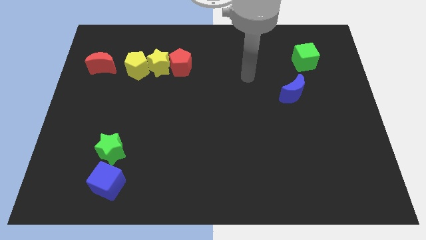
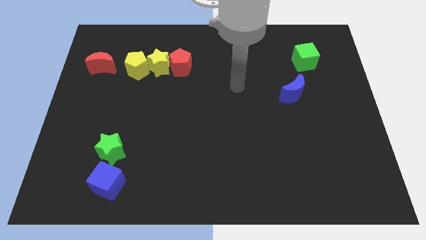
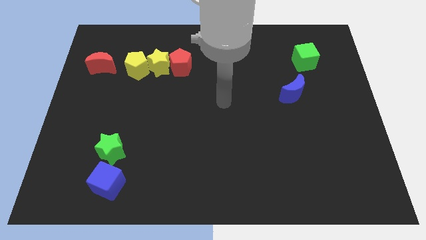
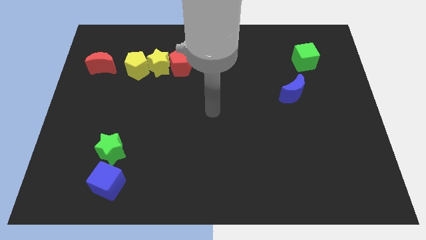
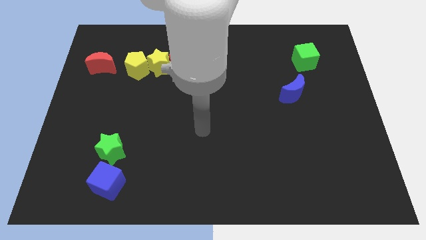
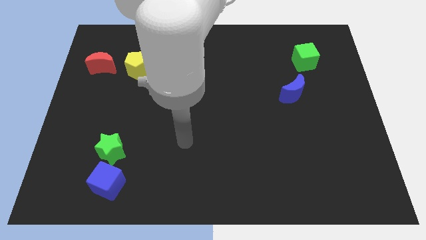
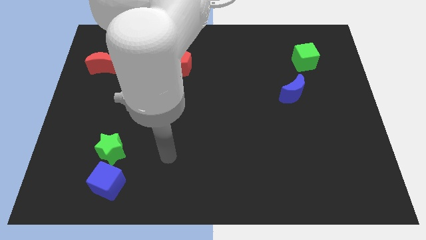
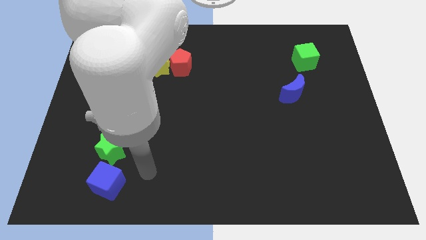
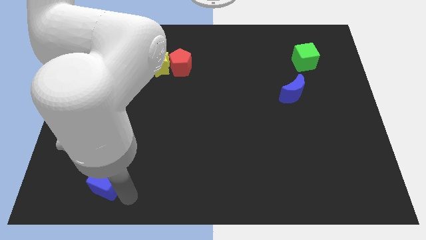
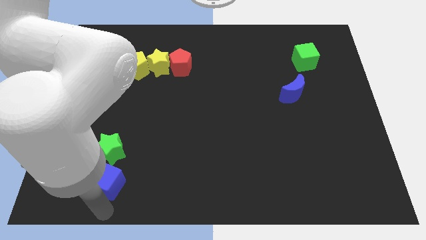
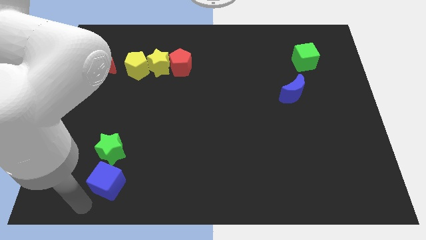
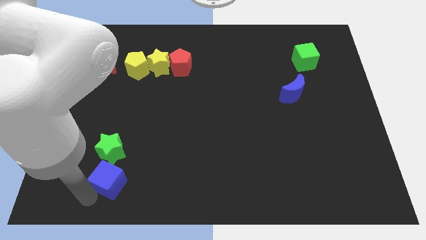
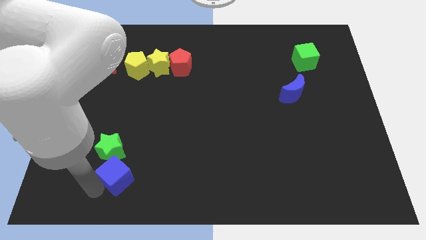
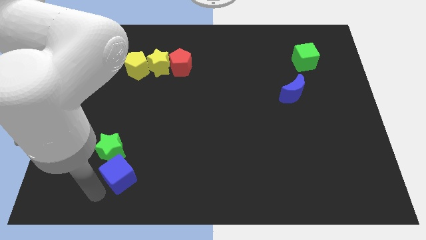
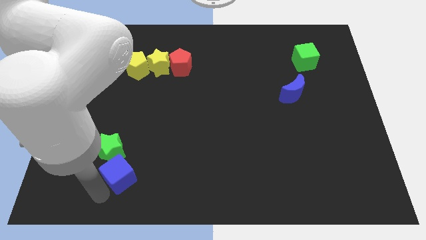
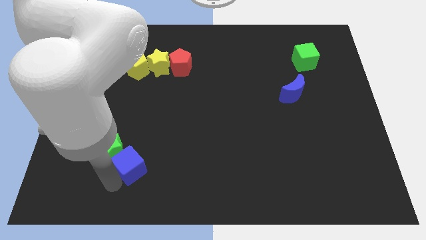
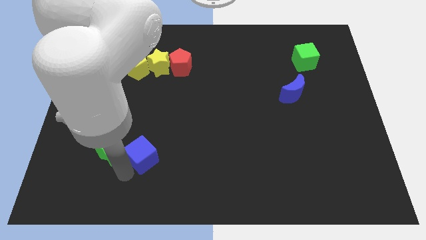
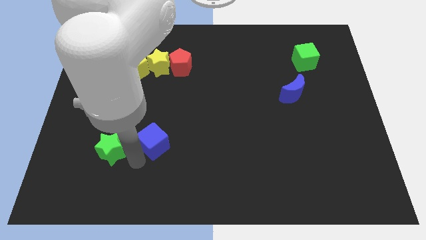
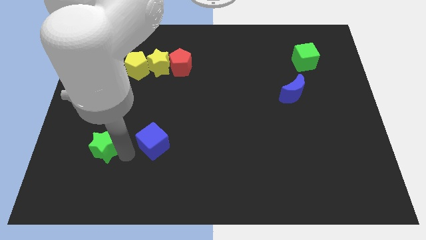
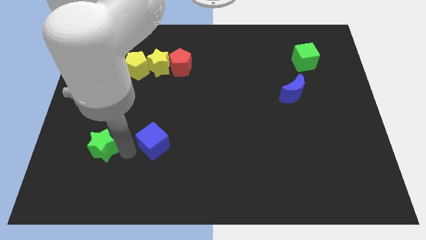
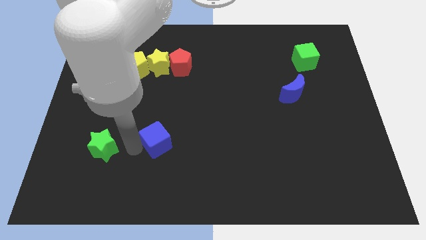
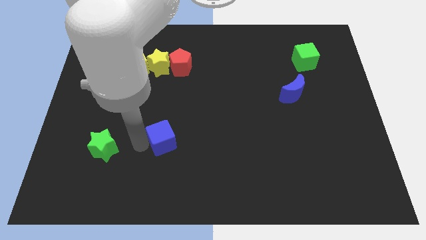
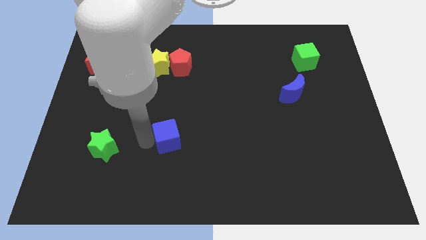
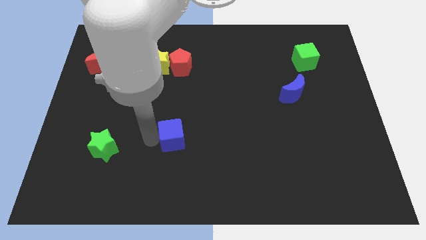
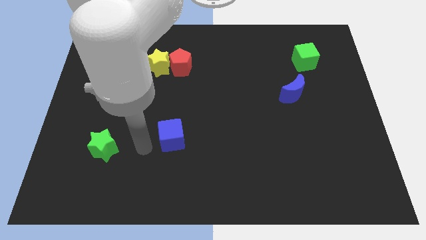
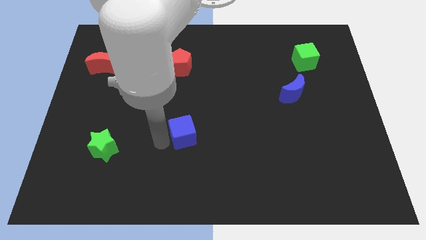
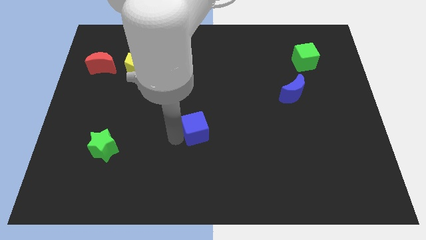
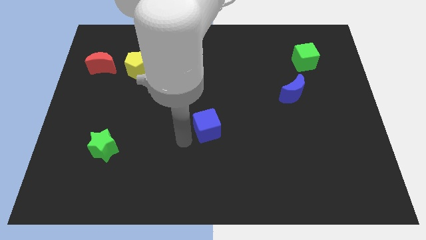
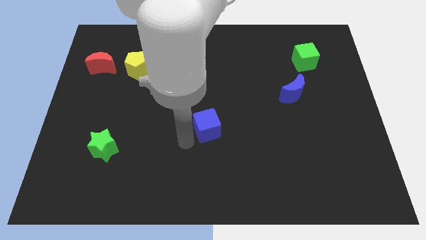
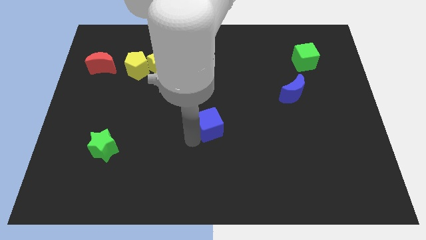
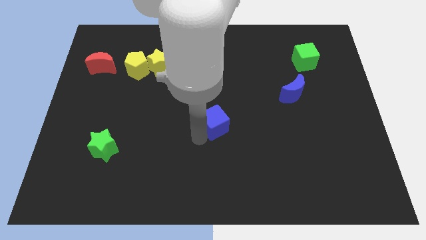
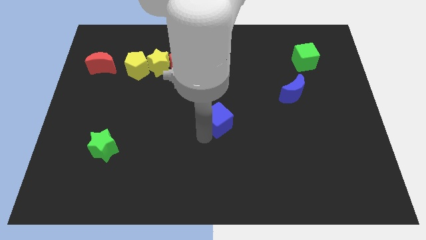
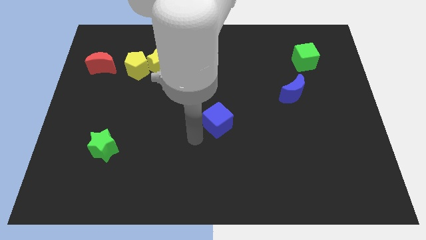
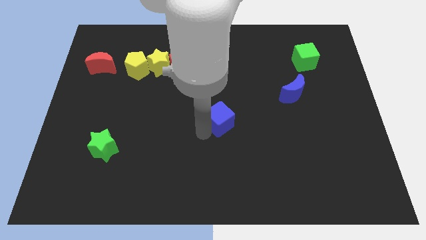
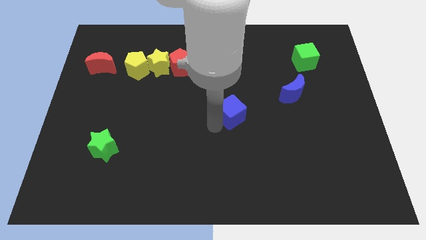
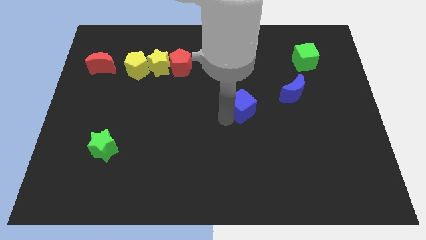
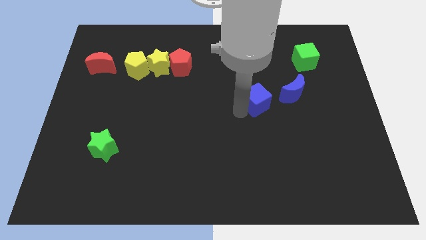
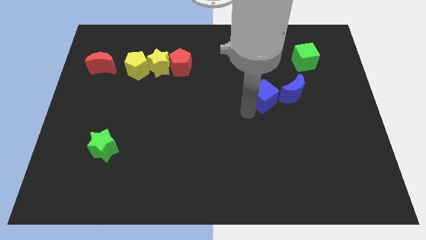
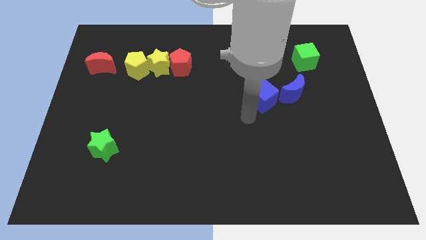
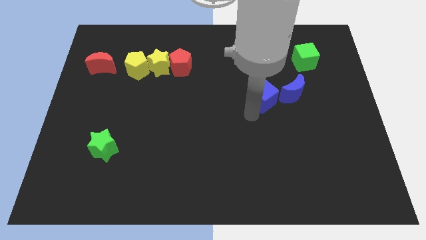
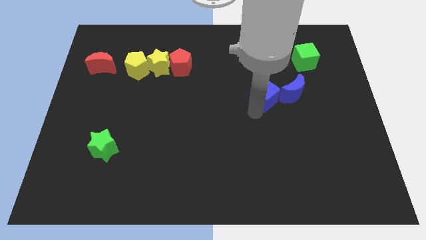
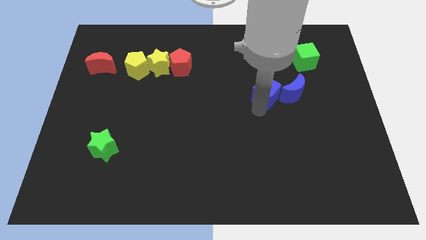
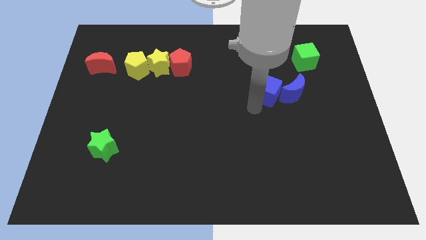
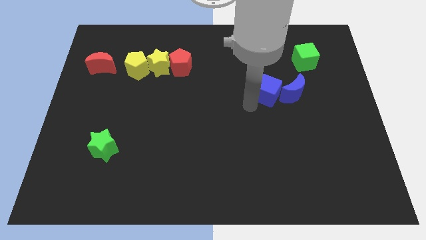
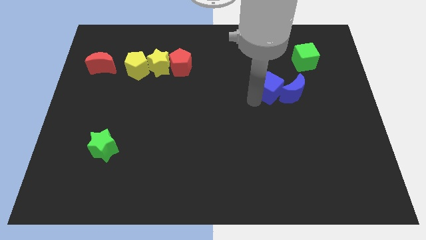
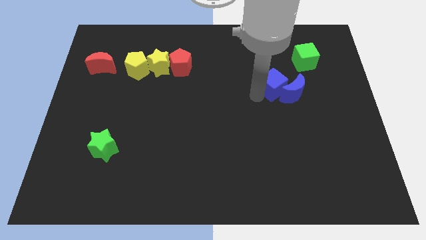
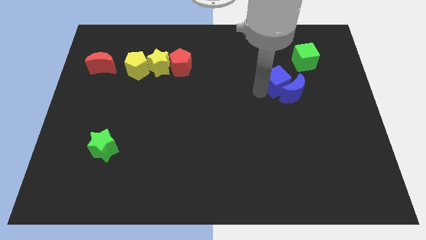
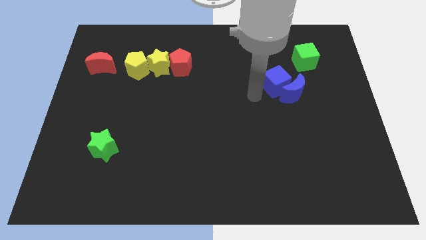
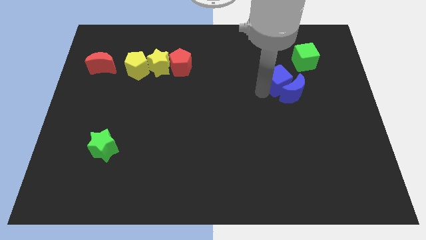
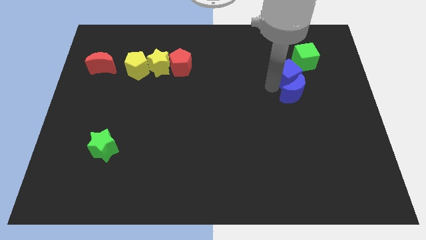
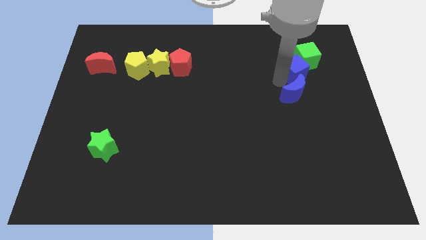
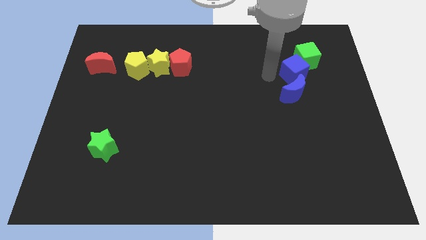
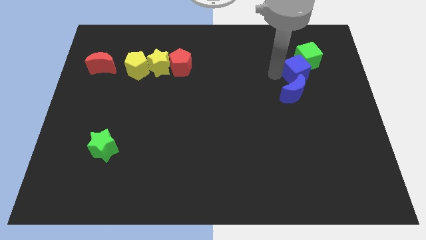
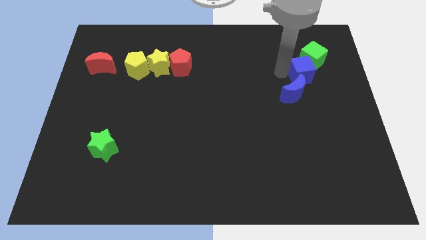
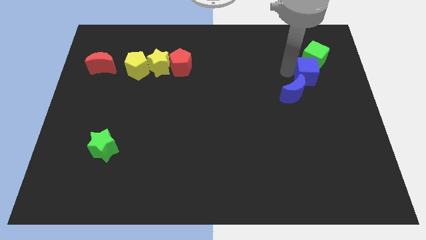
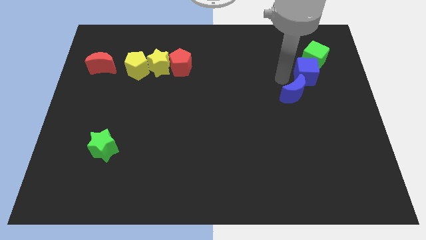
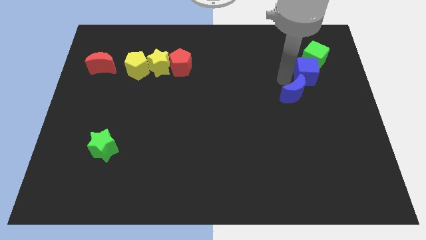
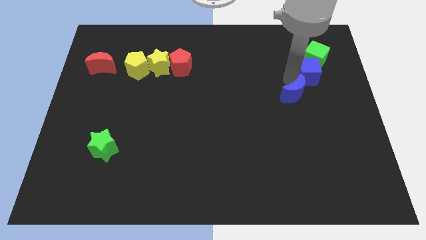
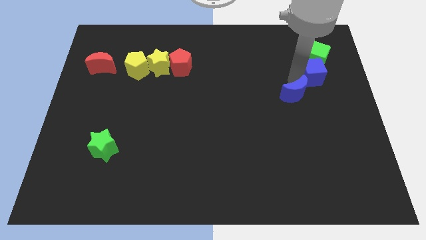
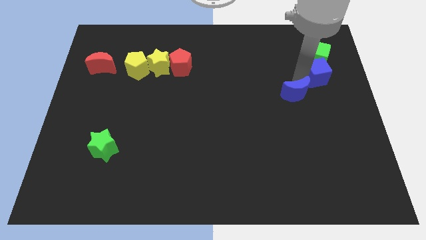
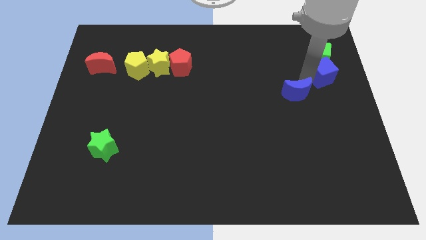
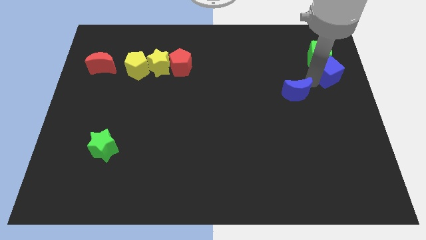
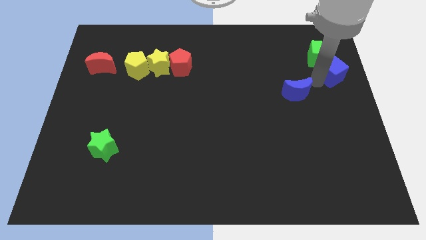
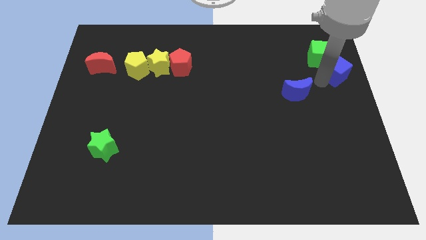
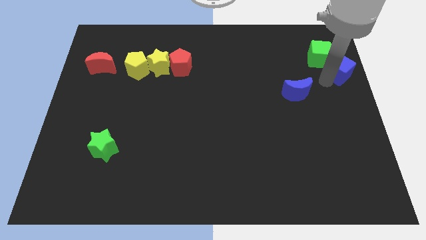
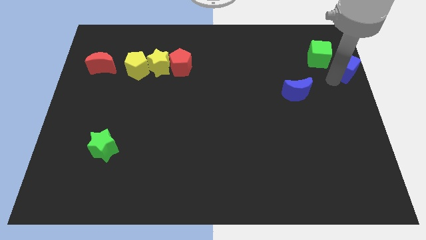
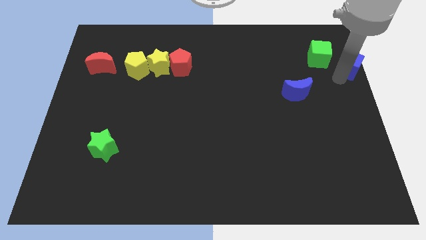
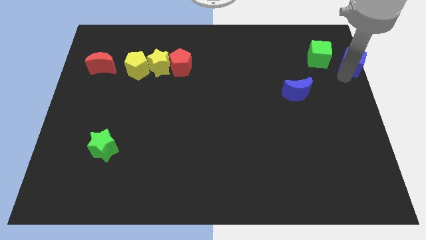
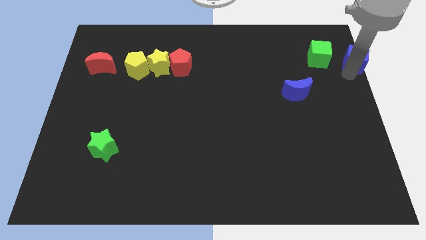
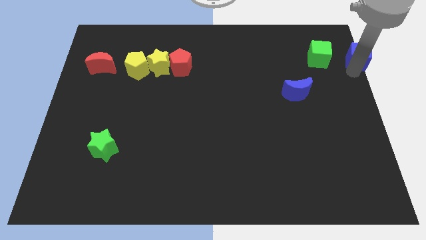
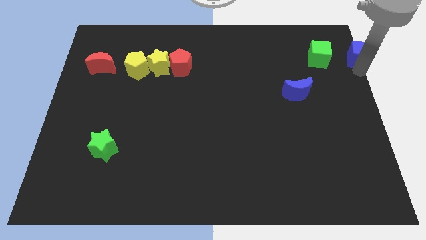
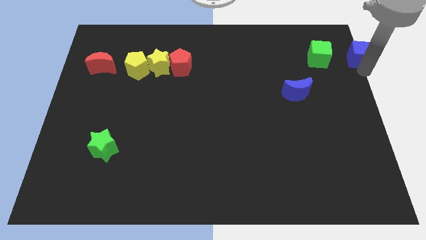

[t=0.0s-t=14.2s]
slide the blue cube to the upper right corner
